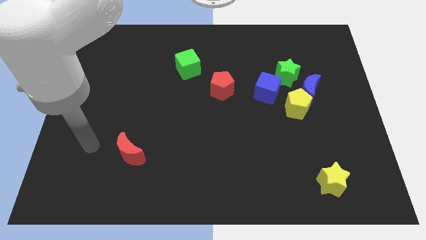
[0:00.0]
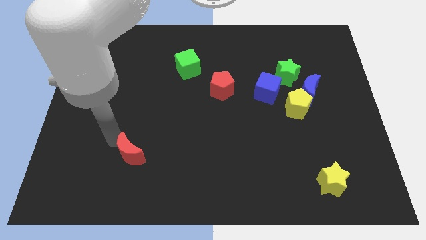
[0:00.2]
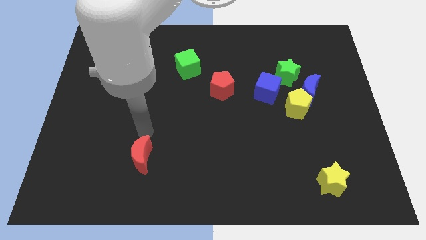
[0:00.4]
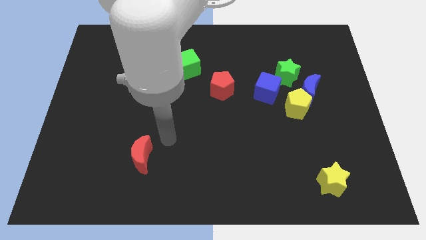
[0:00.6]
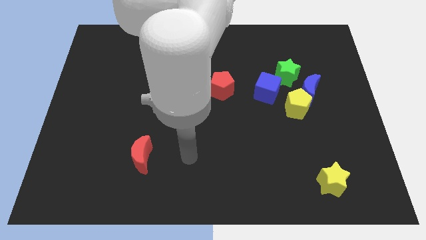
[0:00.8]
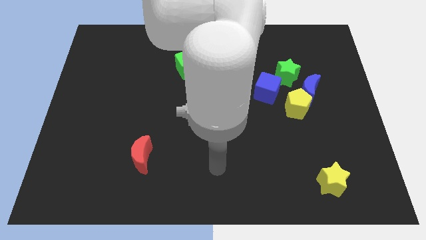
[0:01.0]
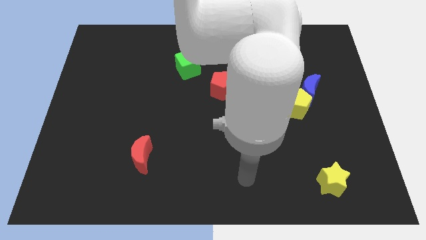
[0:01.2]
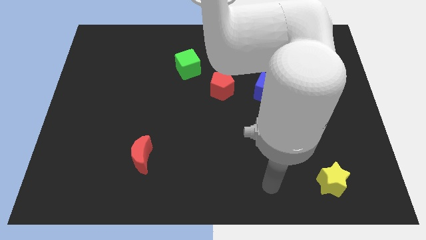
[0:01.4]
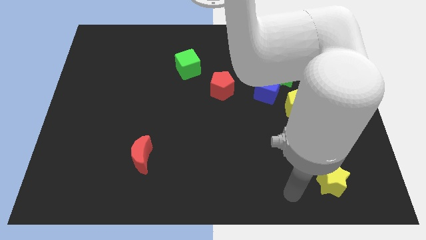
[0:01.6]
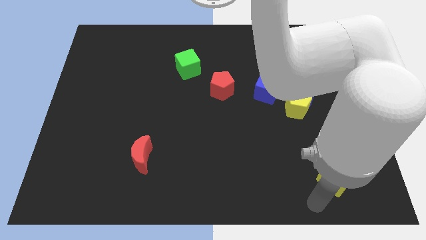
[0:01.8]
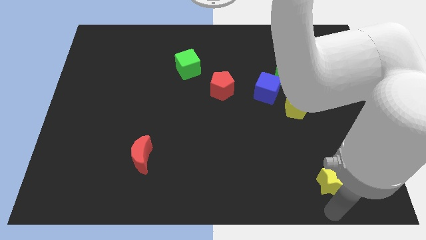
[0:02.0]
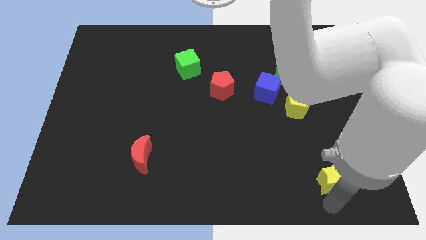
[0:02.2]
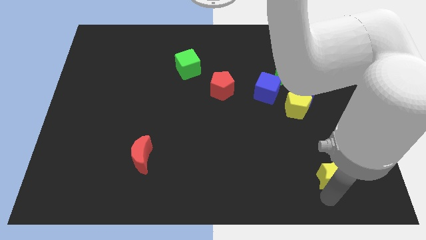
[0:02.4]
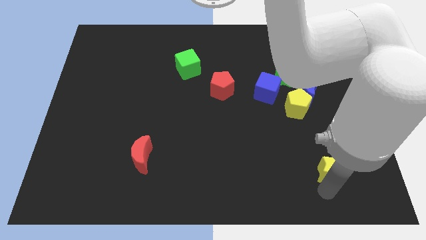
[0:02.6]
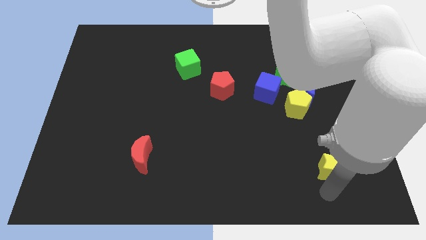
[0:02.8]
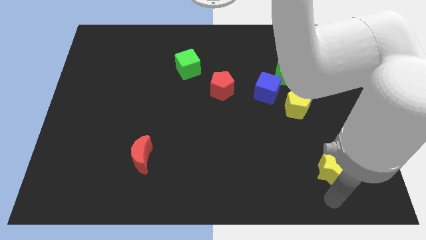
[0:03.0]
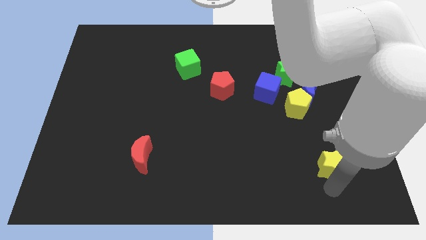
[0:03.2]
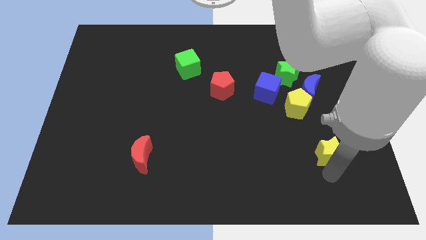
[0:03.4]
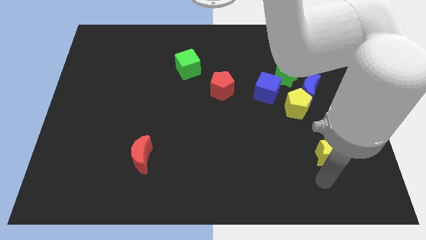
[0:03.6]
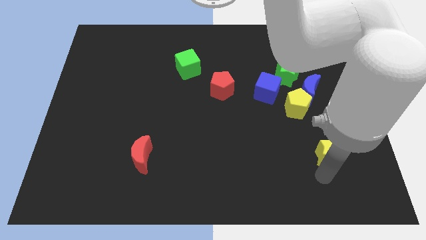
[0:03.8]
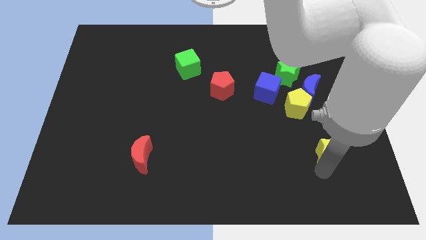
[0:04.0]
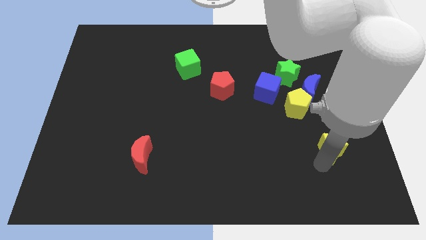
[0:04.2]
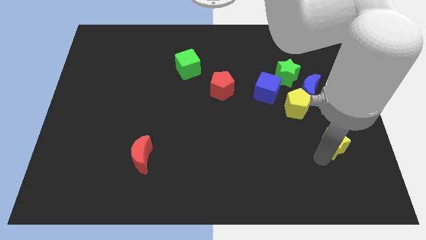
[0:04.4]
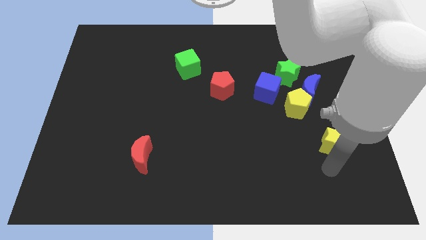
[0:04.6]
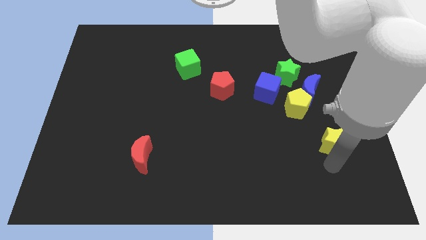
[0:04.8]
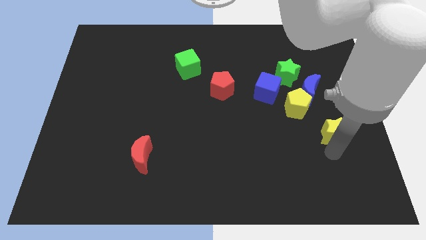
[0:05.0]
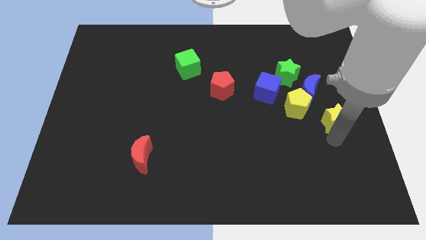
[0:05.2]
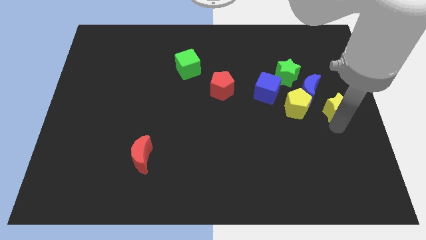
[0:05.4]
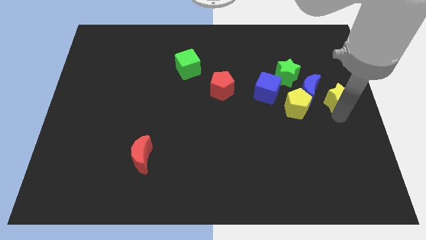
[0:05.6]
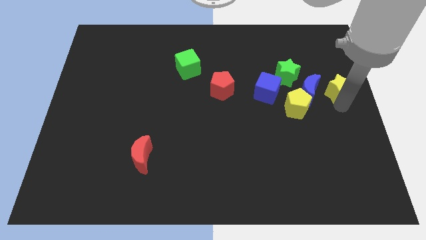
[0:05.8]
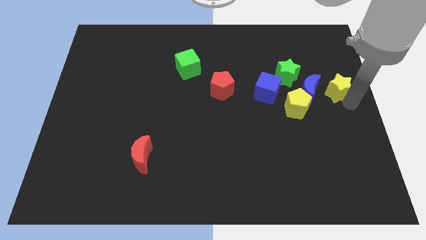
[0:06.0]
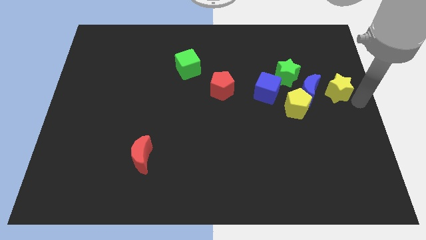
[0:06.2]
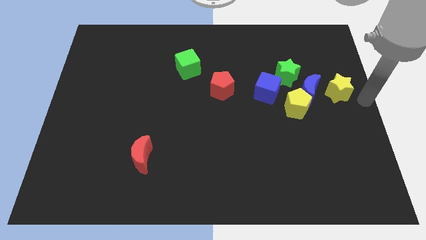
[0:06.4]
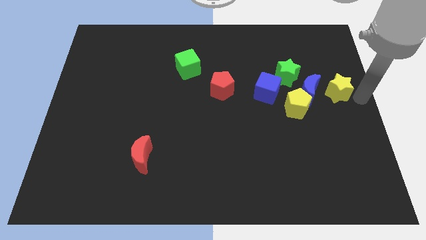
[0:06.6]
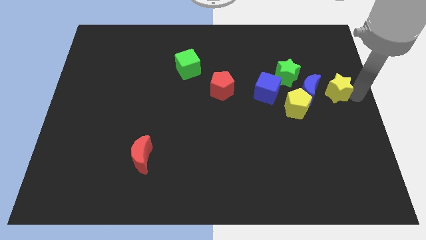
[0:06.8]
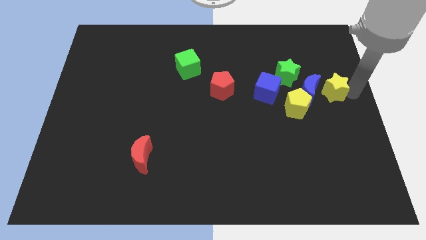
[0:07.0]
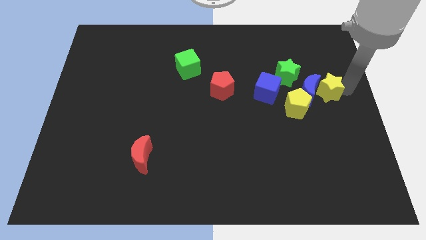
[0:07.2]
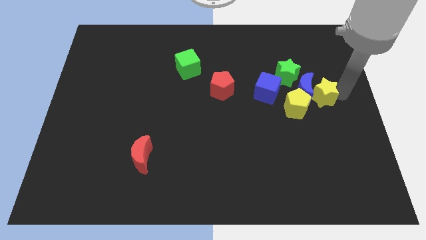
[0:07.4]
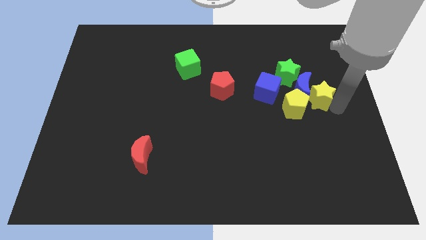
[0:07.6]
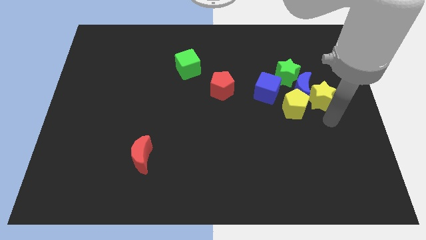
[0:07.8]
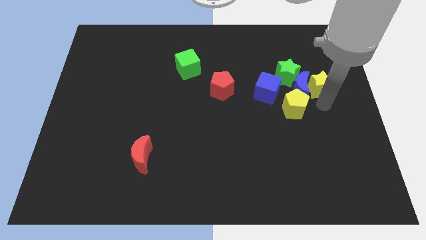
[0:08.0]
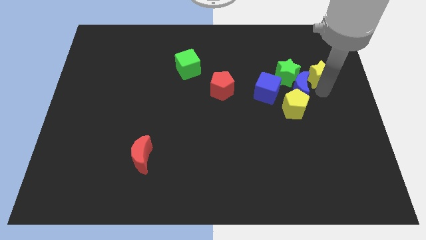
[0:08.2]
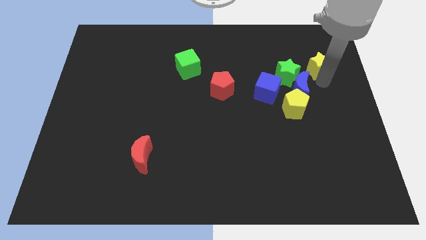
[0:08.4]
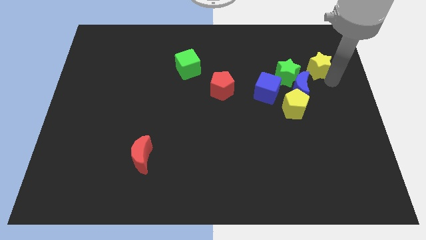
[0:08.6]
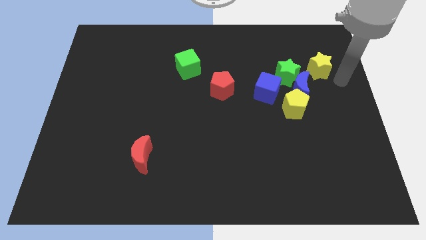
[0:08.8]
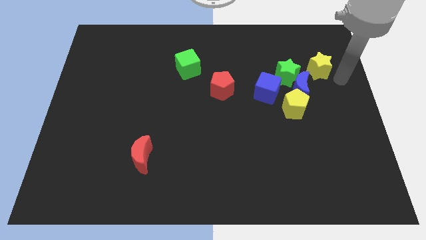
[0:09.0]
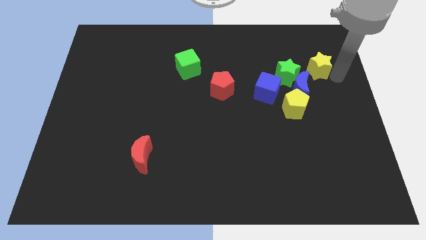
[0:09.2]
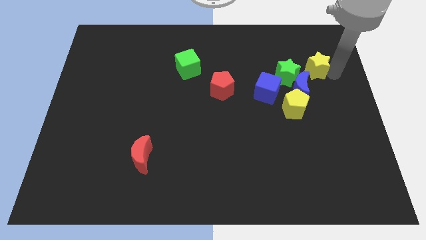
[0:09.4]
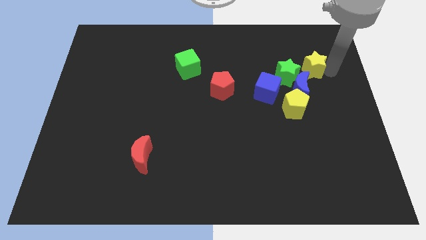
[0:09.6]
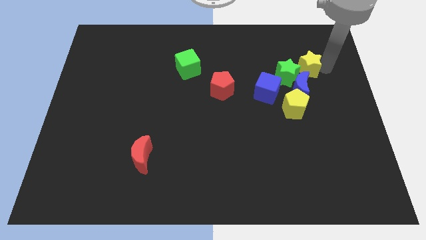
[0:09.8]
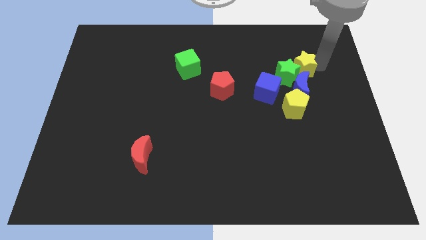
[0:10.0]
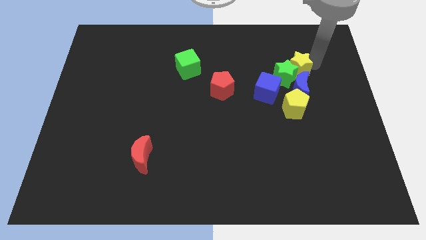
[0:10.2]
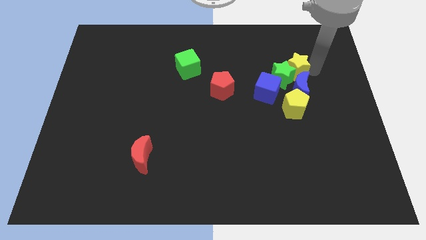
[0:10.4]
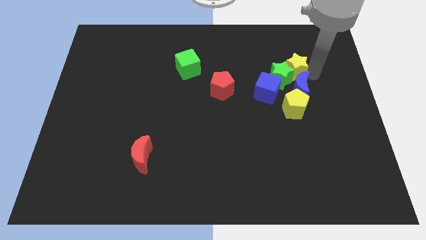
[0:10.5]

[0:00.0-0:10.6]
push the yellow star diagonally up and to the left of the blue moon

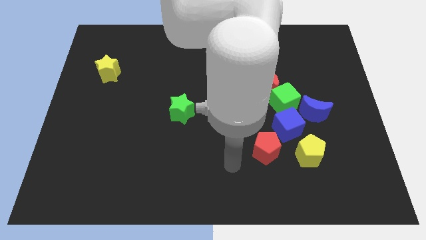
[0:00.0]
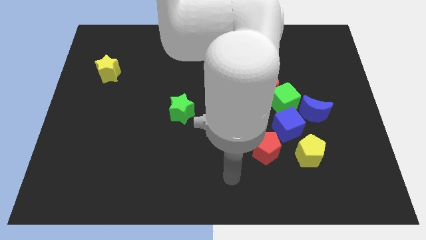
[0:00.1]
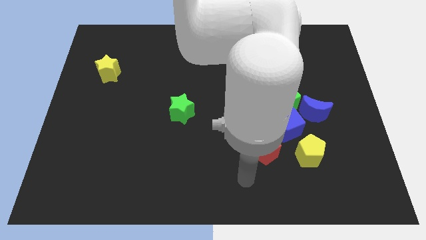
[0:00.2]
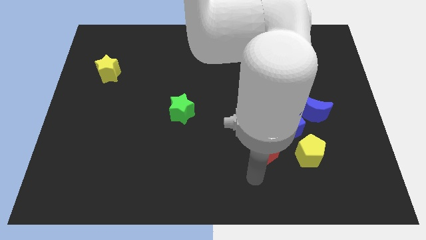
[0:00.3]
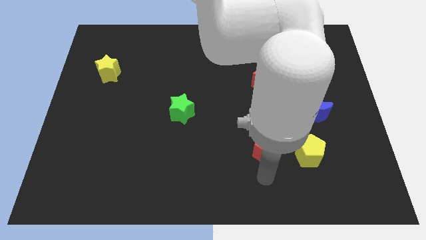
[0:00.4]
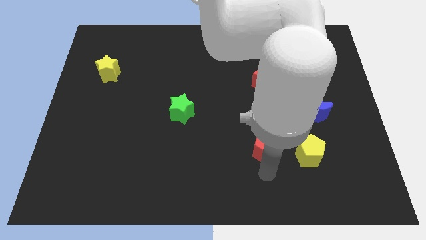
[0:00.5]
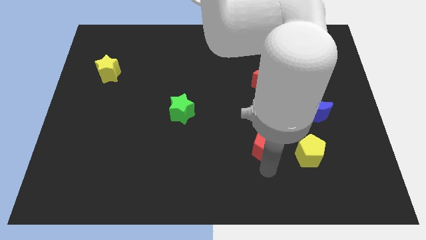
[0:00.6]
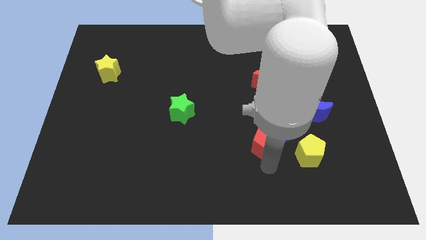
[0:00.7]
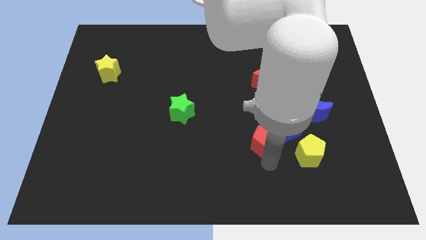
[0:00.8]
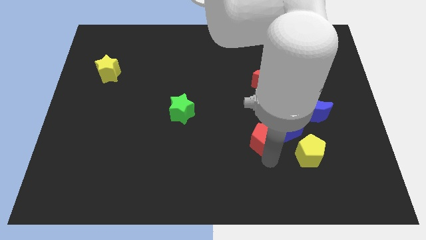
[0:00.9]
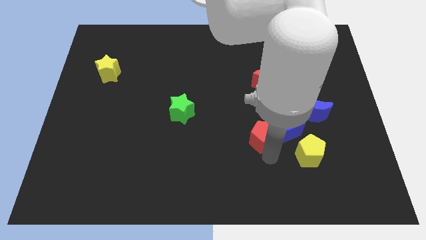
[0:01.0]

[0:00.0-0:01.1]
slide the red pentagon to the bottom left side of the green cube

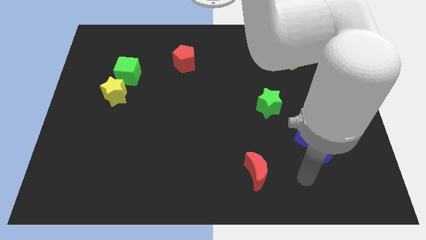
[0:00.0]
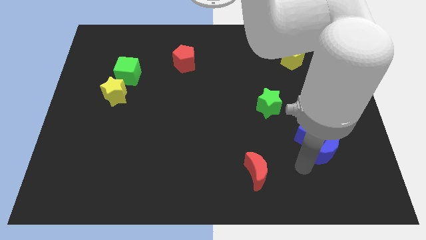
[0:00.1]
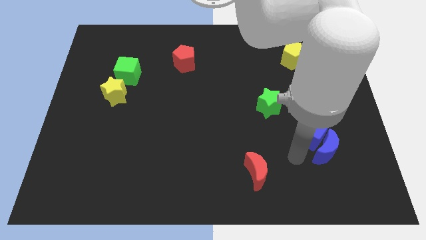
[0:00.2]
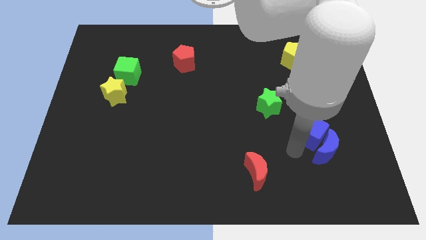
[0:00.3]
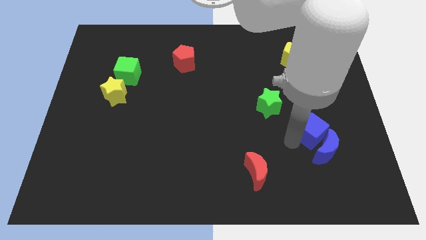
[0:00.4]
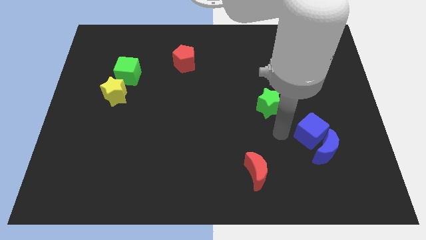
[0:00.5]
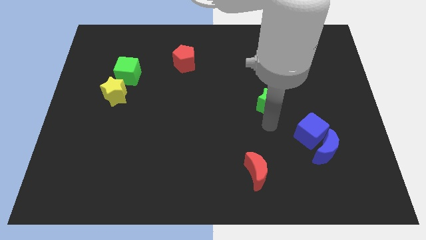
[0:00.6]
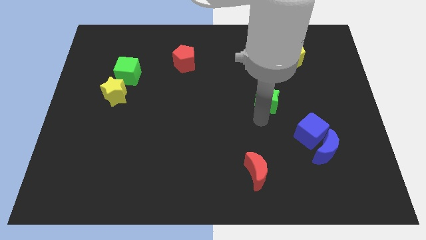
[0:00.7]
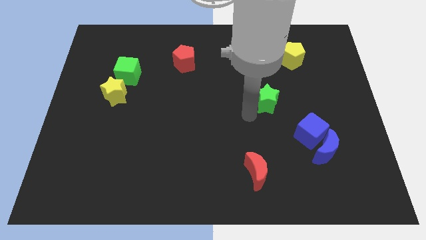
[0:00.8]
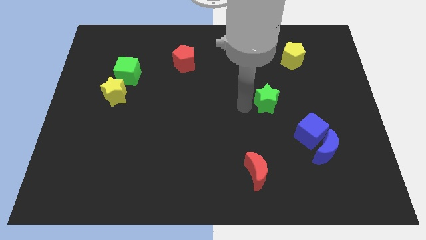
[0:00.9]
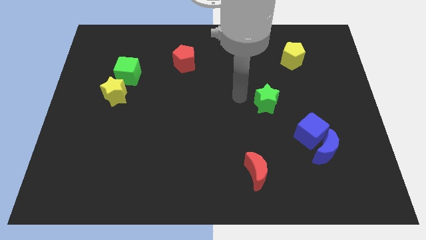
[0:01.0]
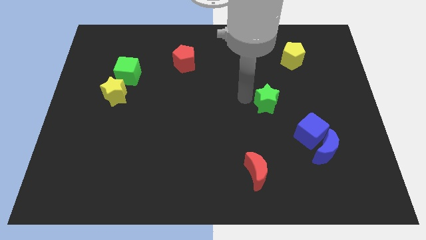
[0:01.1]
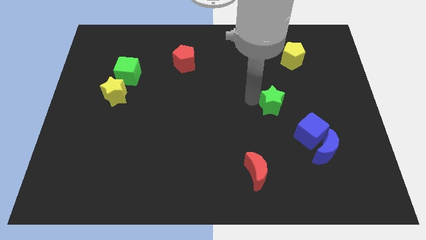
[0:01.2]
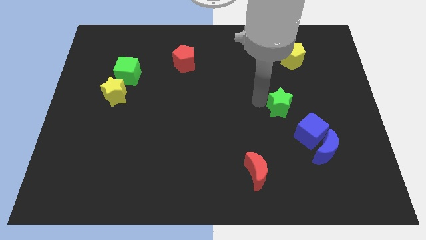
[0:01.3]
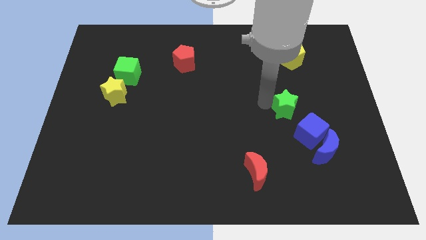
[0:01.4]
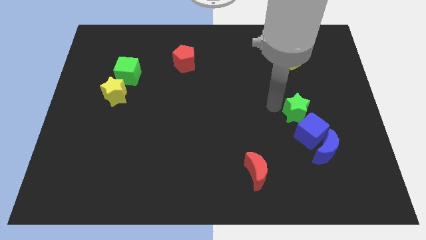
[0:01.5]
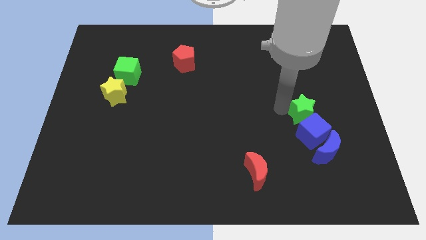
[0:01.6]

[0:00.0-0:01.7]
move the green star above the blue moon
